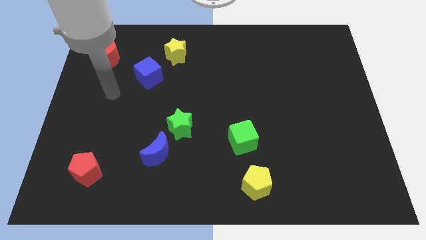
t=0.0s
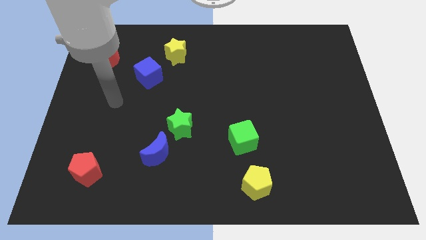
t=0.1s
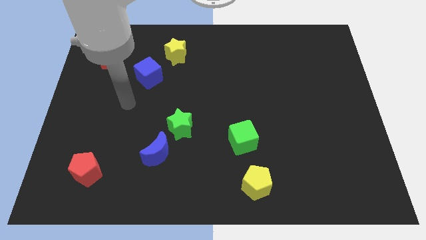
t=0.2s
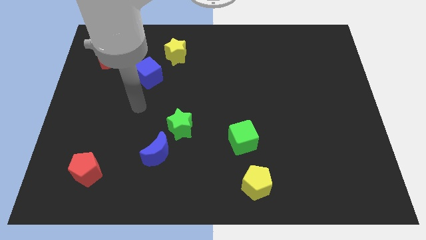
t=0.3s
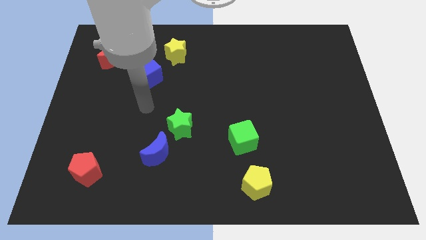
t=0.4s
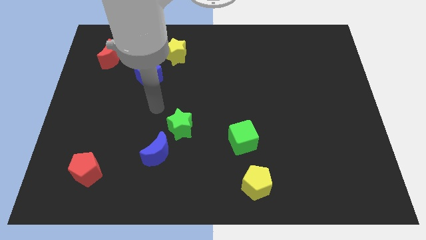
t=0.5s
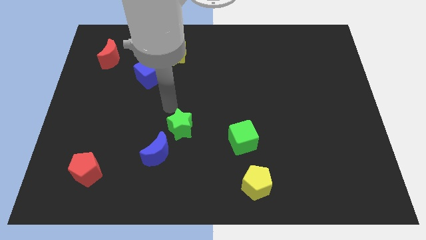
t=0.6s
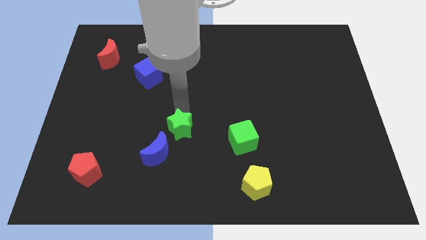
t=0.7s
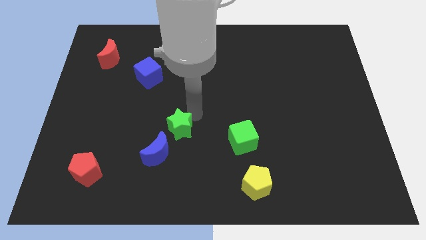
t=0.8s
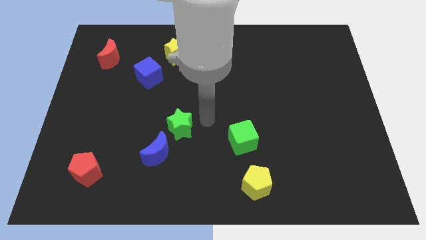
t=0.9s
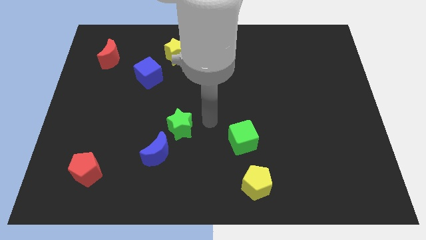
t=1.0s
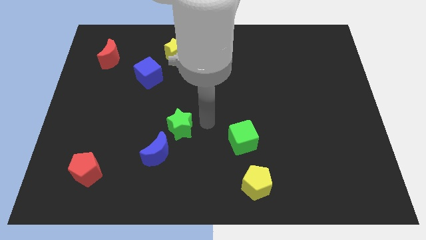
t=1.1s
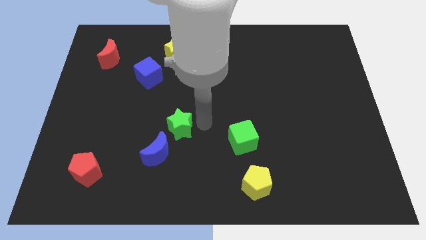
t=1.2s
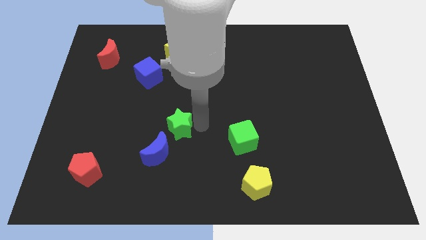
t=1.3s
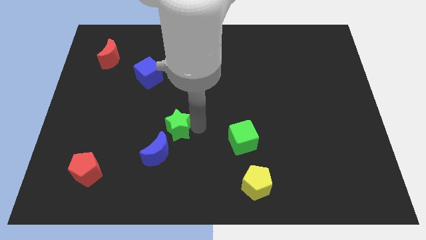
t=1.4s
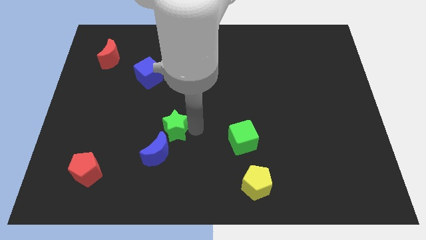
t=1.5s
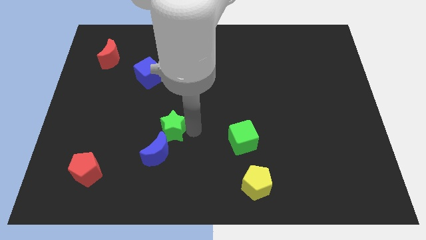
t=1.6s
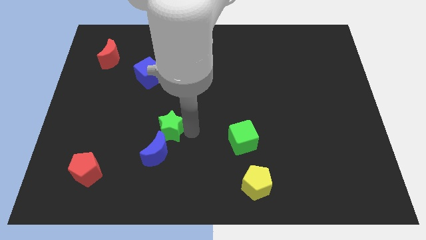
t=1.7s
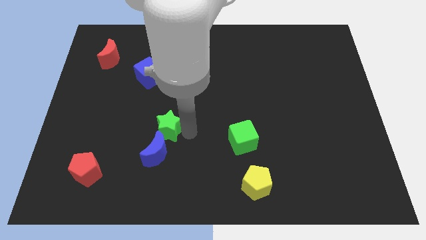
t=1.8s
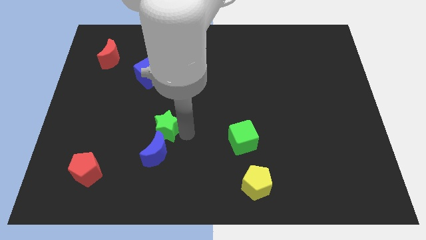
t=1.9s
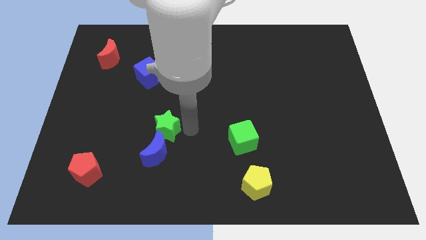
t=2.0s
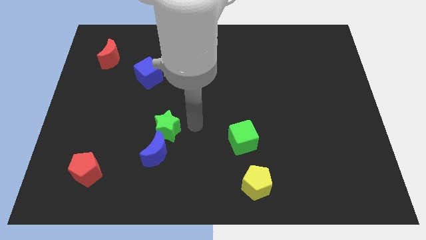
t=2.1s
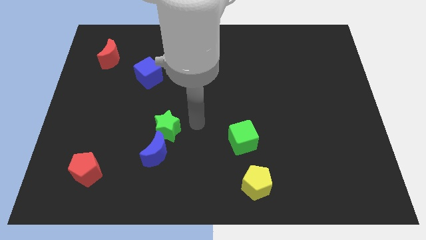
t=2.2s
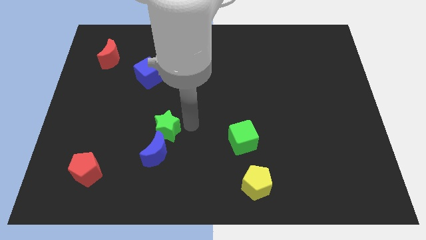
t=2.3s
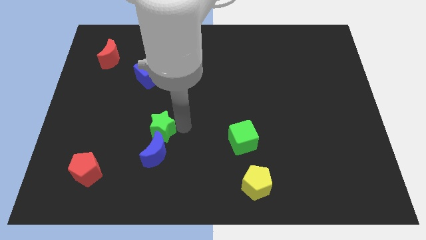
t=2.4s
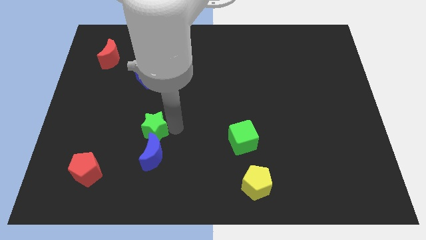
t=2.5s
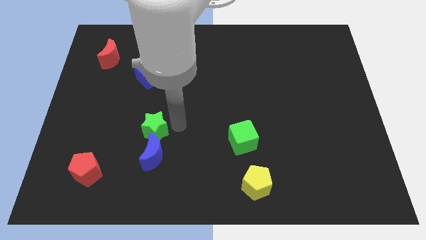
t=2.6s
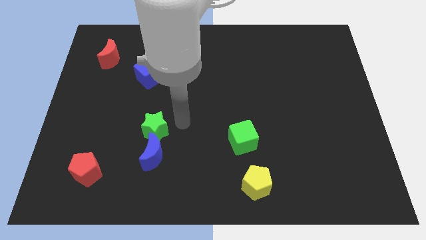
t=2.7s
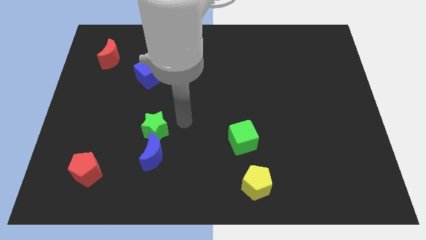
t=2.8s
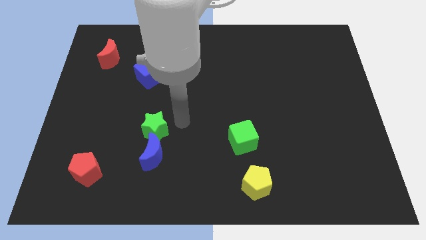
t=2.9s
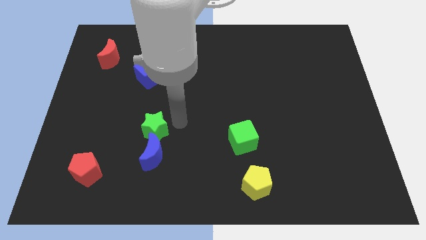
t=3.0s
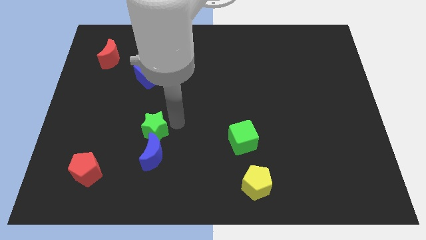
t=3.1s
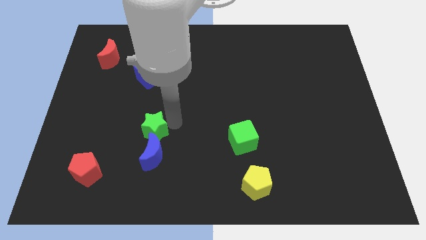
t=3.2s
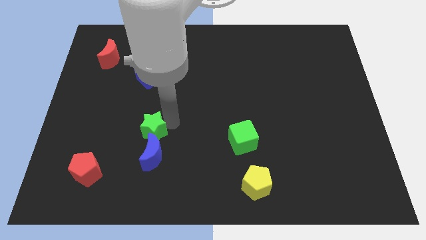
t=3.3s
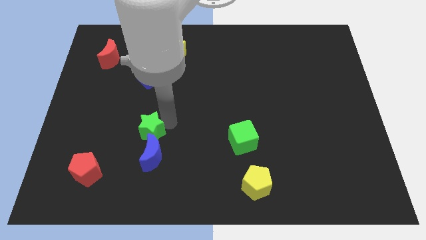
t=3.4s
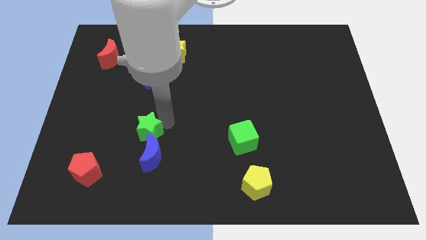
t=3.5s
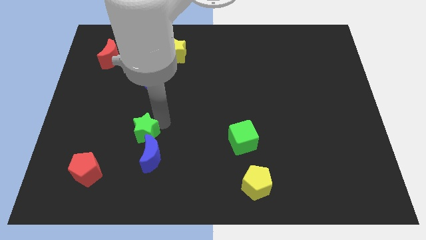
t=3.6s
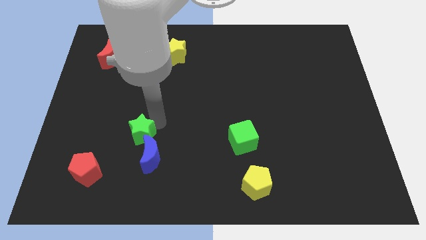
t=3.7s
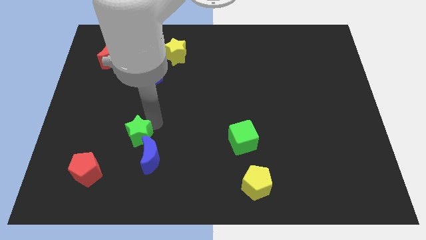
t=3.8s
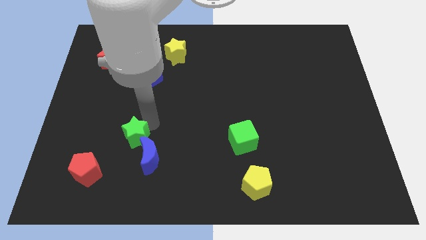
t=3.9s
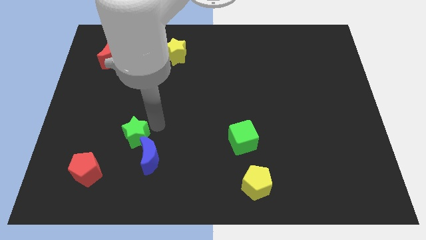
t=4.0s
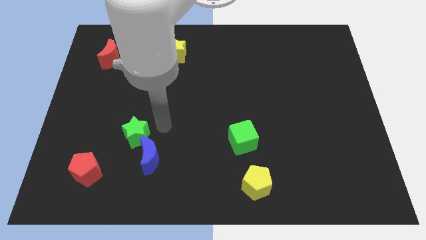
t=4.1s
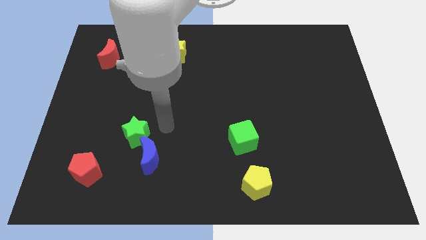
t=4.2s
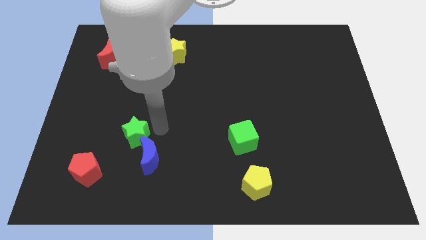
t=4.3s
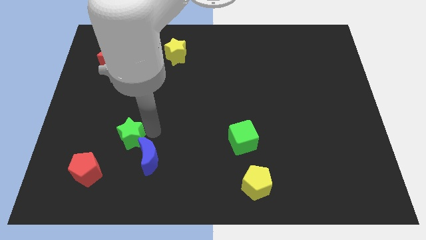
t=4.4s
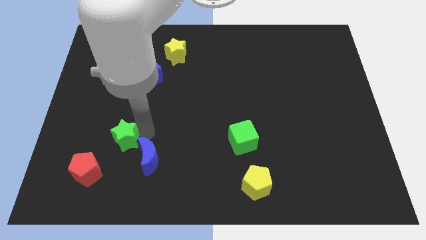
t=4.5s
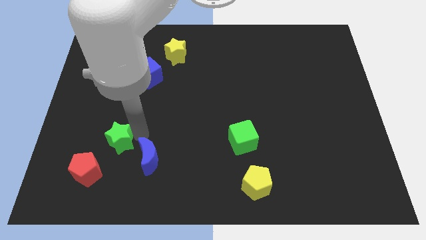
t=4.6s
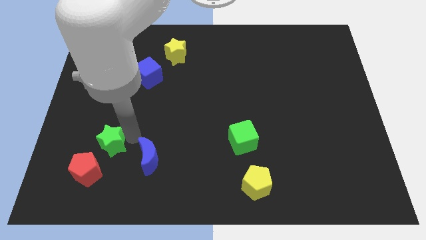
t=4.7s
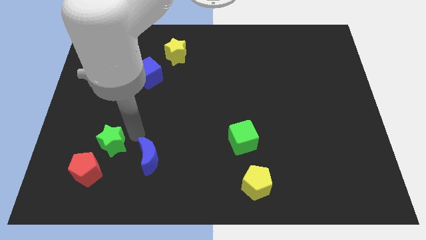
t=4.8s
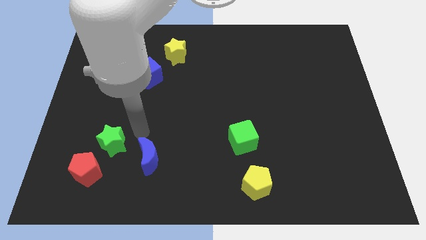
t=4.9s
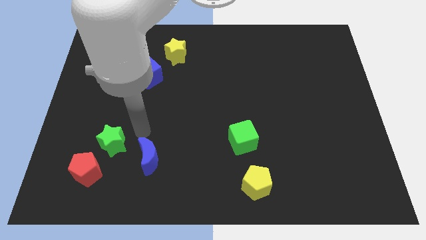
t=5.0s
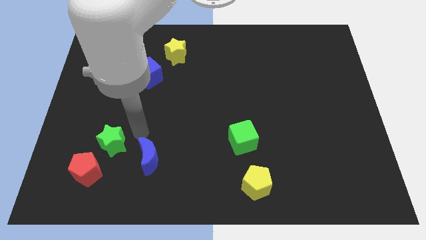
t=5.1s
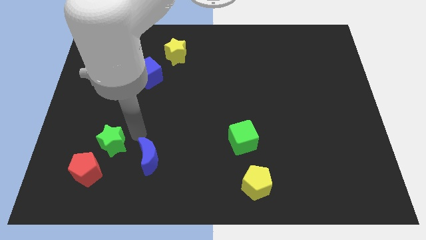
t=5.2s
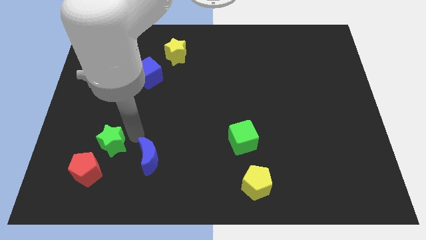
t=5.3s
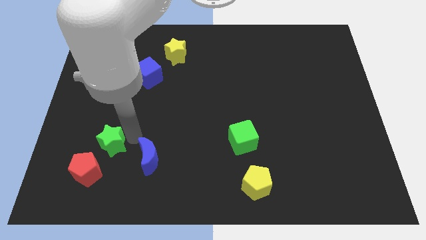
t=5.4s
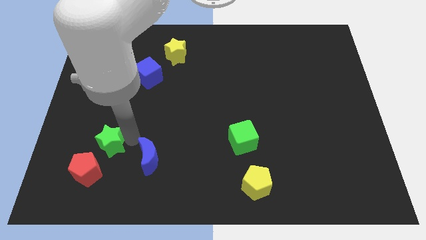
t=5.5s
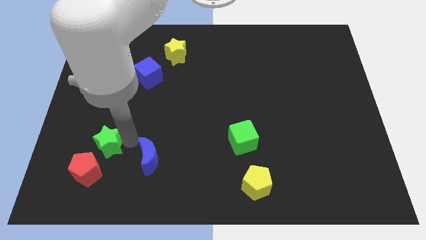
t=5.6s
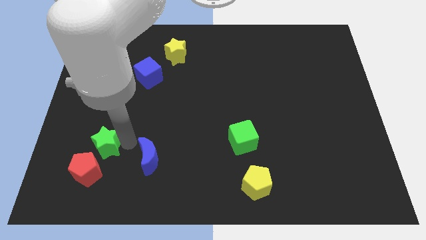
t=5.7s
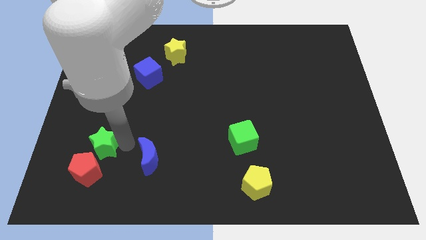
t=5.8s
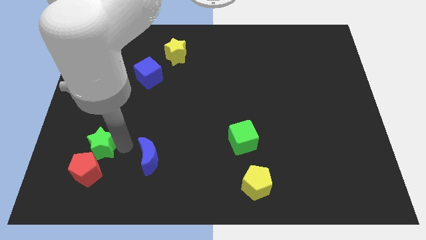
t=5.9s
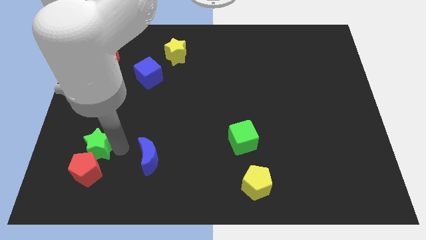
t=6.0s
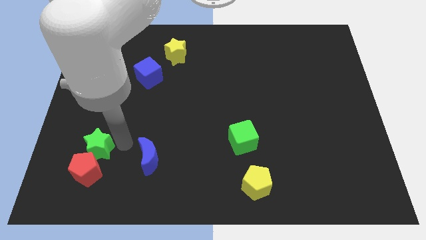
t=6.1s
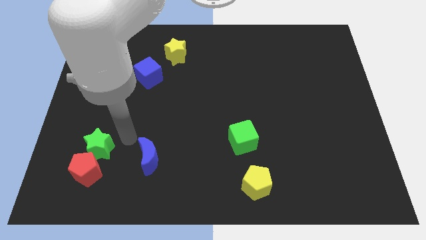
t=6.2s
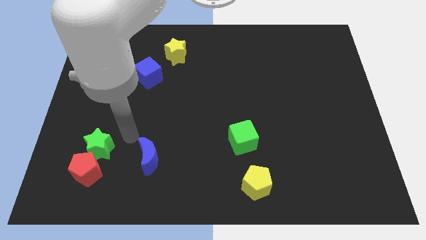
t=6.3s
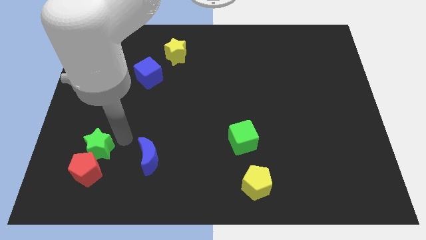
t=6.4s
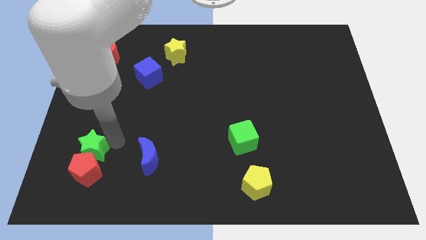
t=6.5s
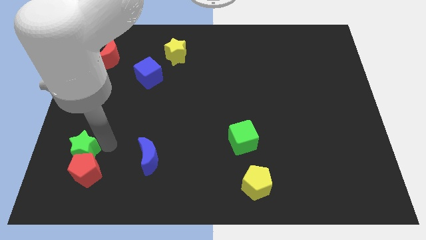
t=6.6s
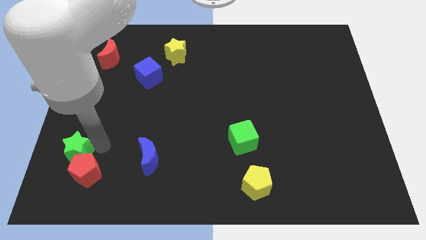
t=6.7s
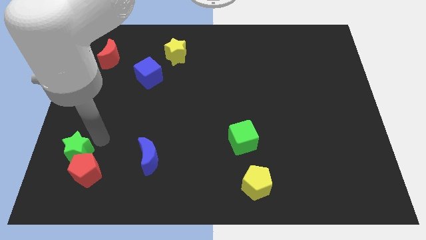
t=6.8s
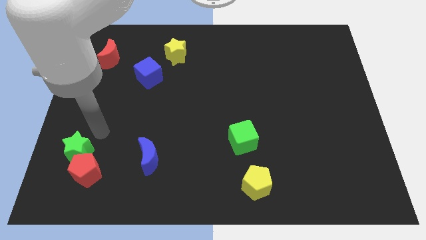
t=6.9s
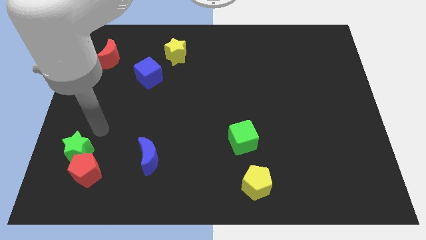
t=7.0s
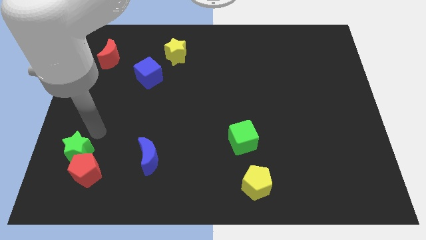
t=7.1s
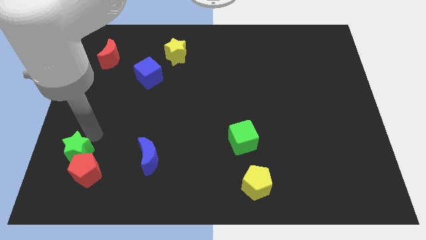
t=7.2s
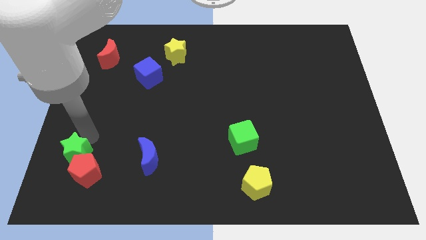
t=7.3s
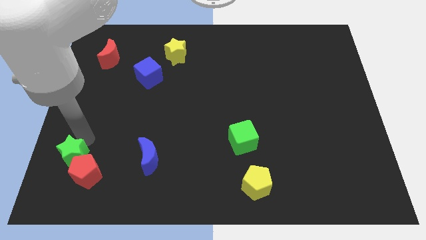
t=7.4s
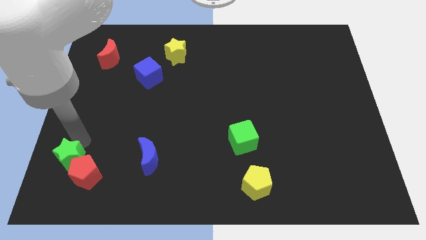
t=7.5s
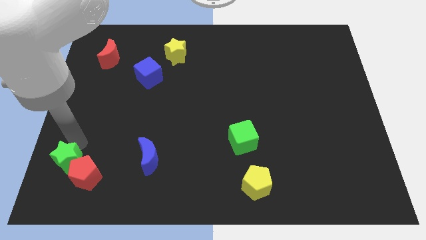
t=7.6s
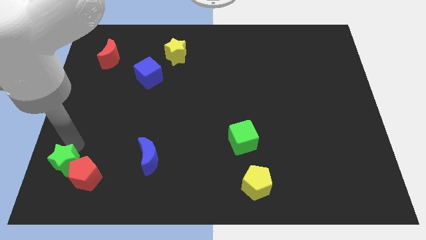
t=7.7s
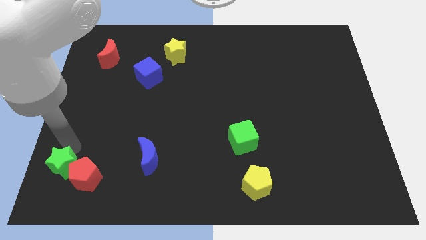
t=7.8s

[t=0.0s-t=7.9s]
slide the green star to the bottom left of the board
